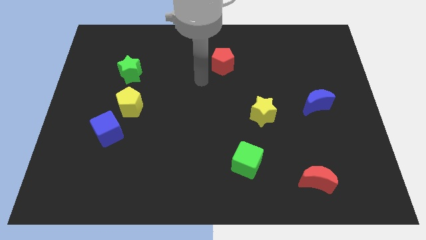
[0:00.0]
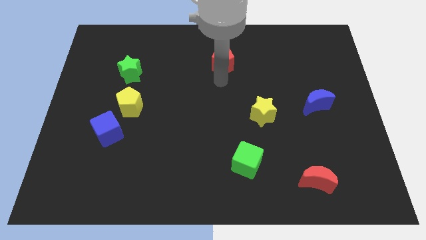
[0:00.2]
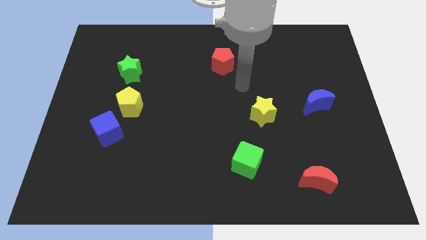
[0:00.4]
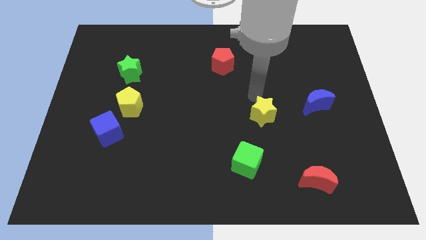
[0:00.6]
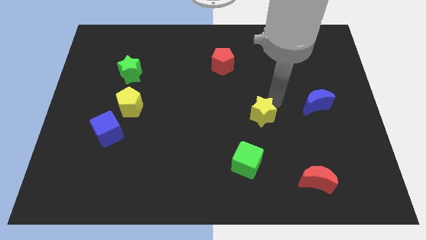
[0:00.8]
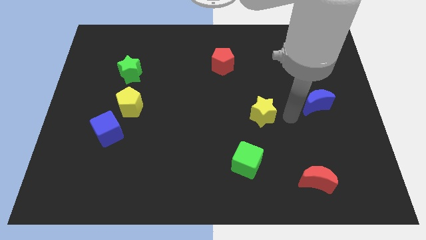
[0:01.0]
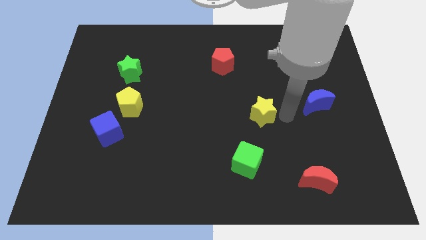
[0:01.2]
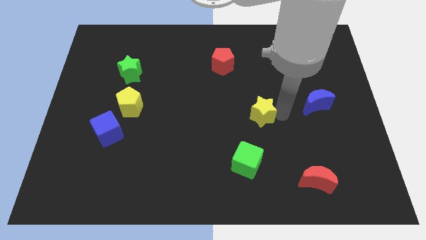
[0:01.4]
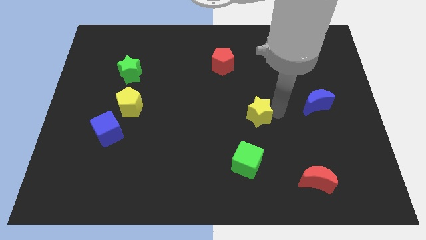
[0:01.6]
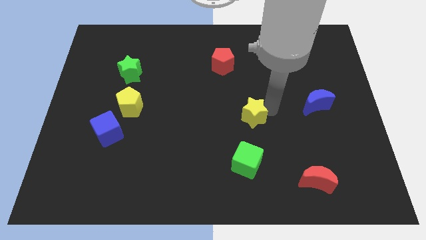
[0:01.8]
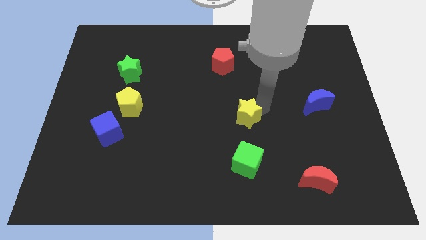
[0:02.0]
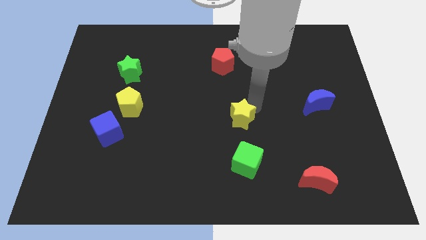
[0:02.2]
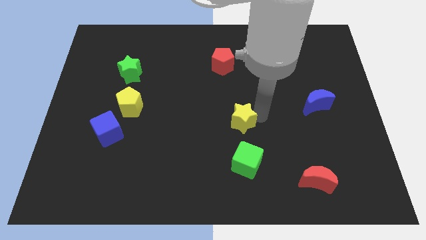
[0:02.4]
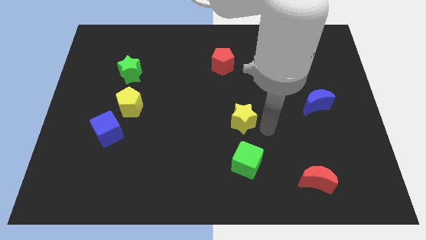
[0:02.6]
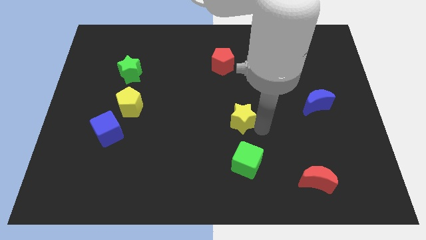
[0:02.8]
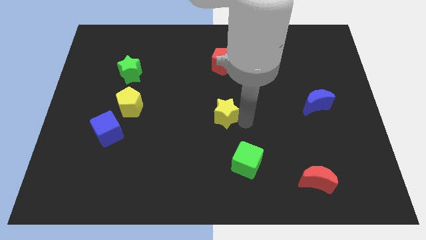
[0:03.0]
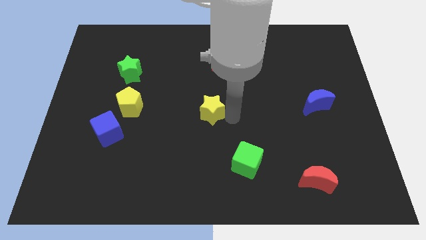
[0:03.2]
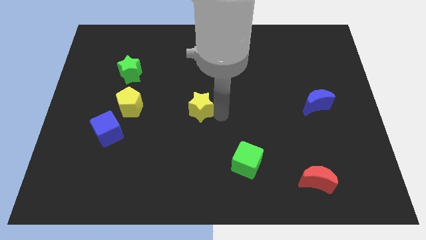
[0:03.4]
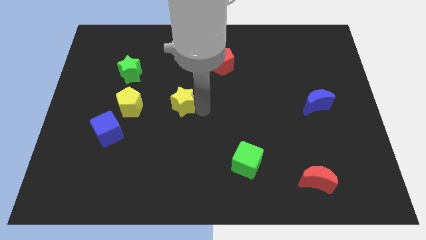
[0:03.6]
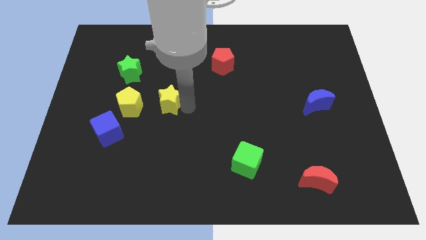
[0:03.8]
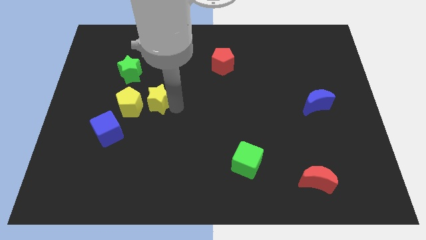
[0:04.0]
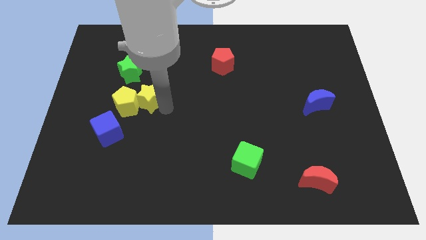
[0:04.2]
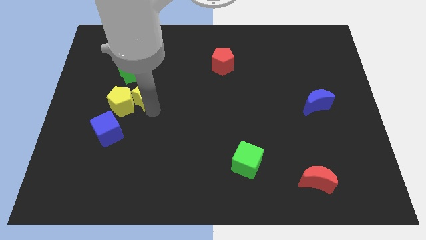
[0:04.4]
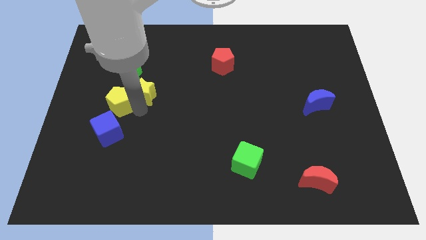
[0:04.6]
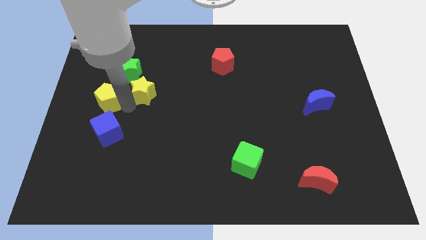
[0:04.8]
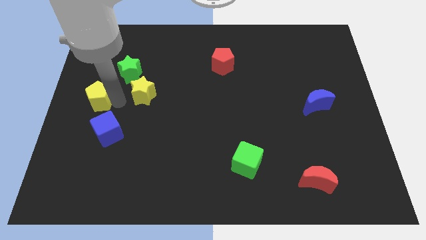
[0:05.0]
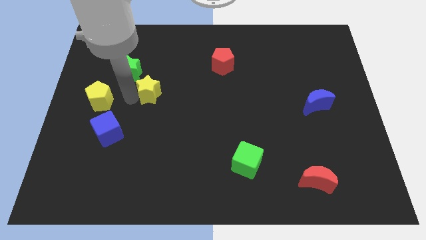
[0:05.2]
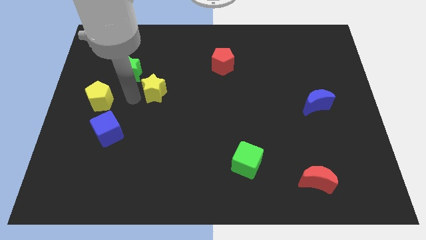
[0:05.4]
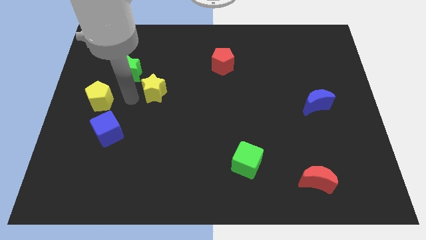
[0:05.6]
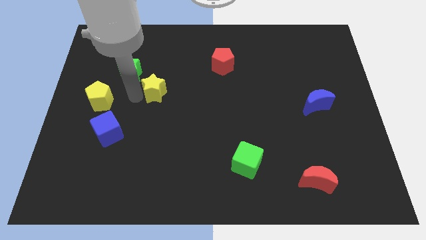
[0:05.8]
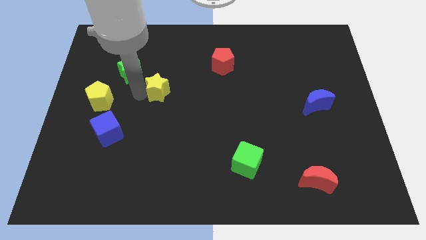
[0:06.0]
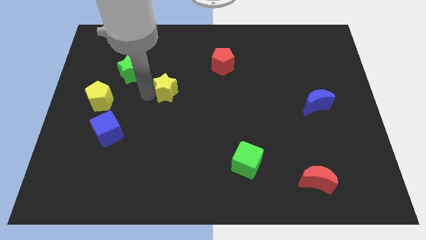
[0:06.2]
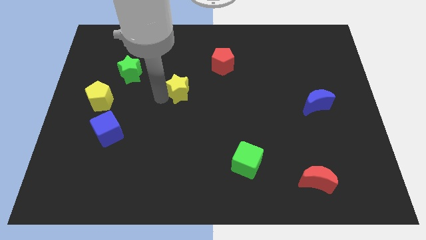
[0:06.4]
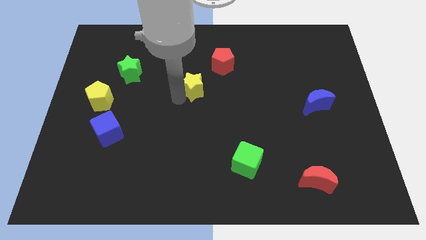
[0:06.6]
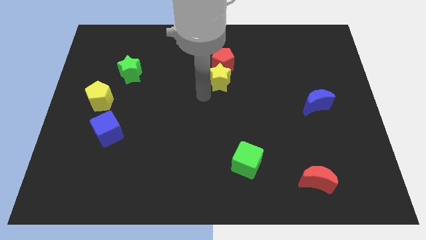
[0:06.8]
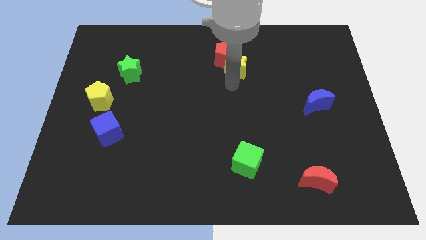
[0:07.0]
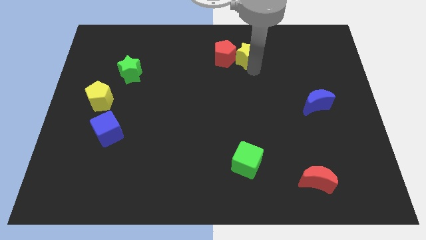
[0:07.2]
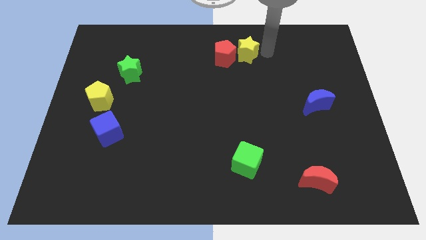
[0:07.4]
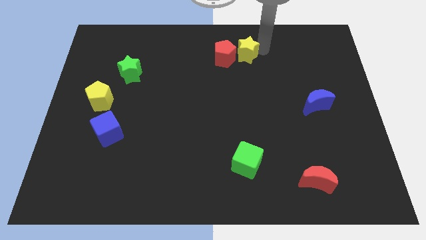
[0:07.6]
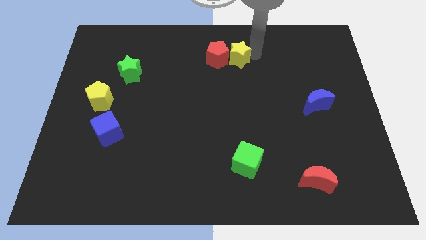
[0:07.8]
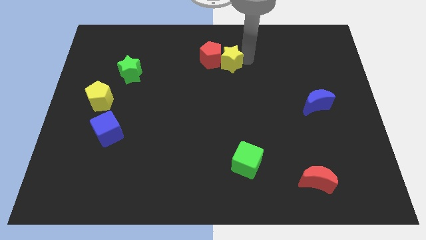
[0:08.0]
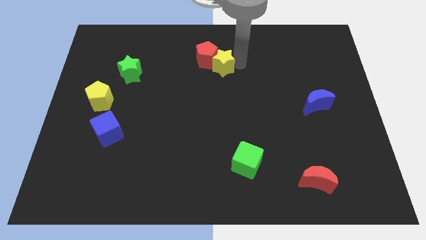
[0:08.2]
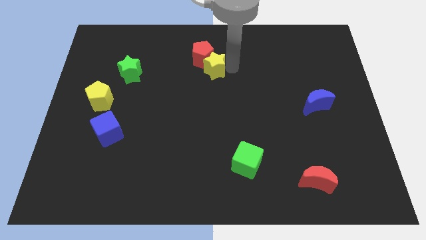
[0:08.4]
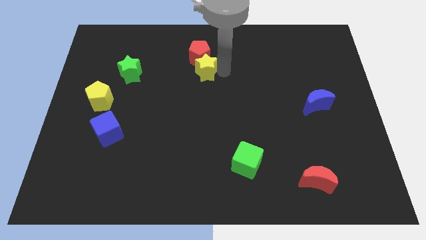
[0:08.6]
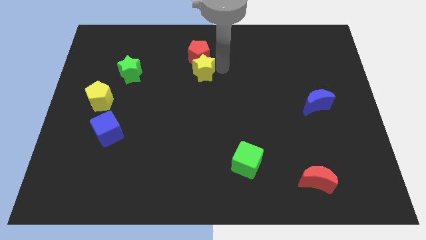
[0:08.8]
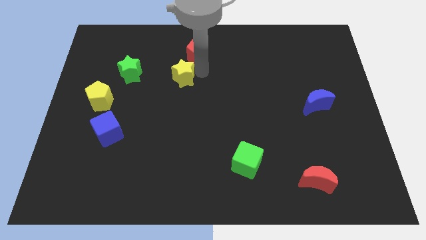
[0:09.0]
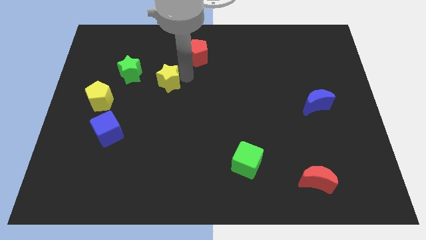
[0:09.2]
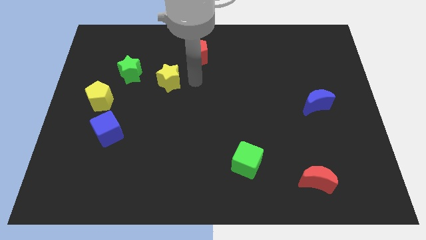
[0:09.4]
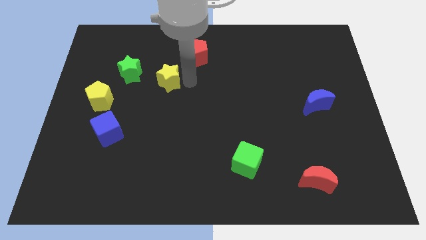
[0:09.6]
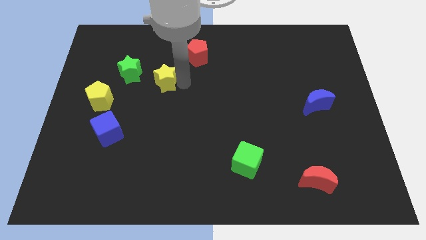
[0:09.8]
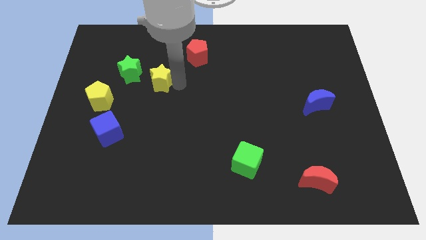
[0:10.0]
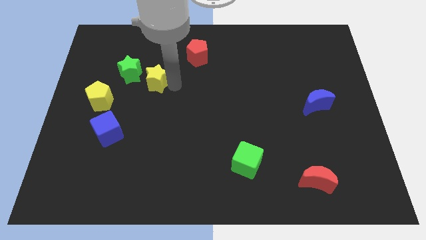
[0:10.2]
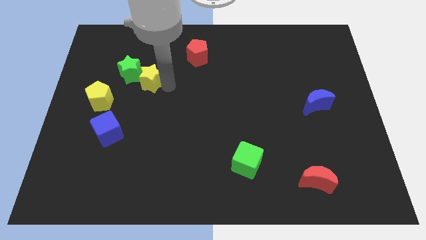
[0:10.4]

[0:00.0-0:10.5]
put the yellow star close to the green star

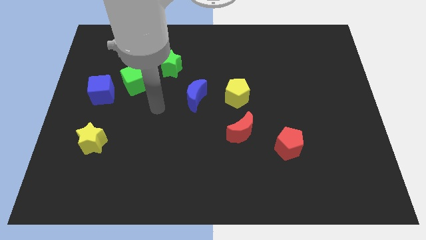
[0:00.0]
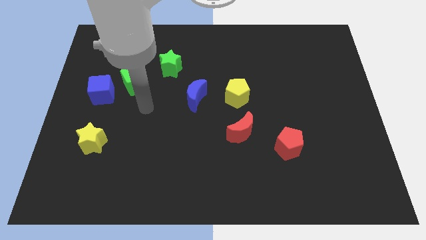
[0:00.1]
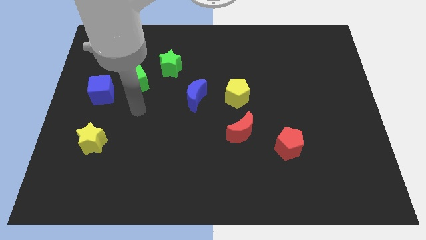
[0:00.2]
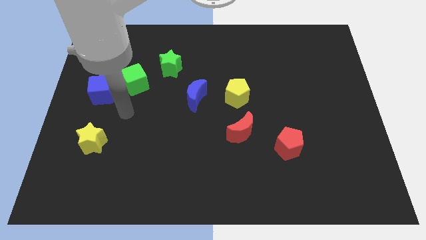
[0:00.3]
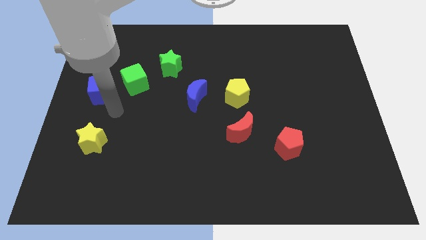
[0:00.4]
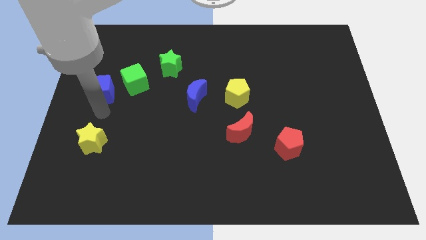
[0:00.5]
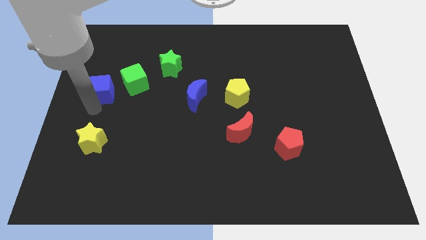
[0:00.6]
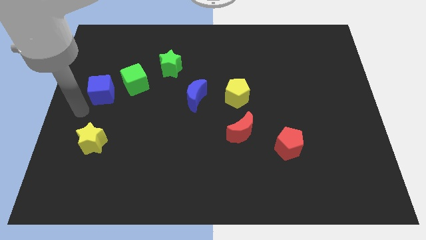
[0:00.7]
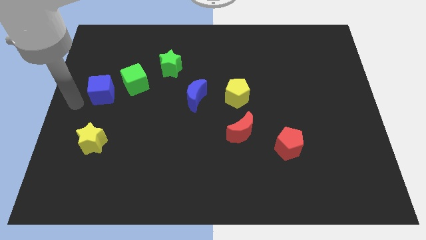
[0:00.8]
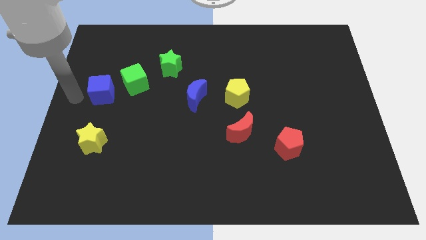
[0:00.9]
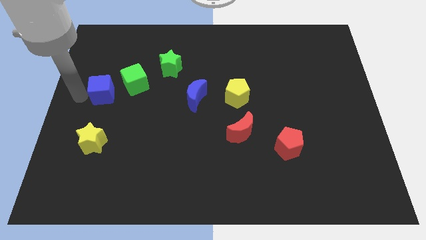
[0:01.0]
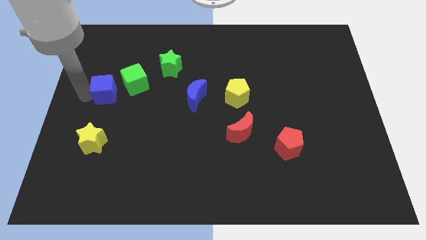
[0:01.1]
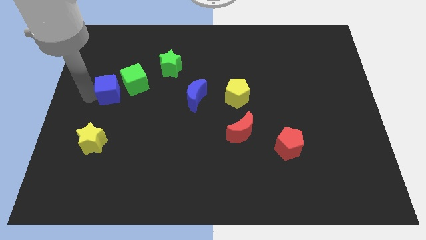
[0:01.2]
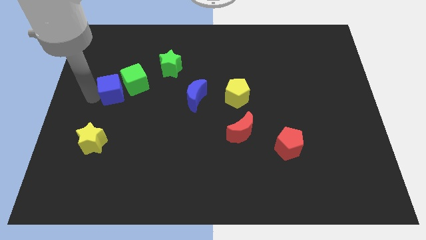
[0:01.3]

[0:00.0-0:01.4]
push the blue cube towards the green cube
